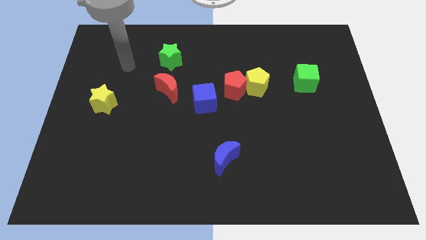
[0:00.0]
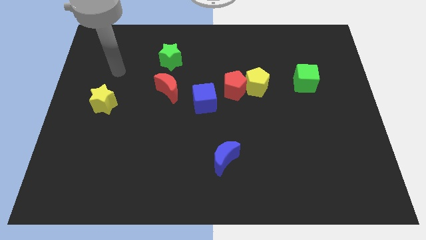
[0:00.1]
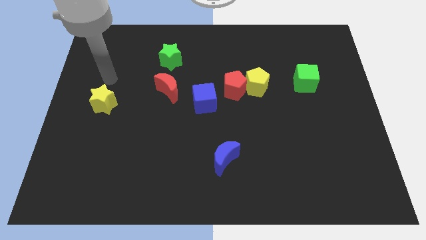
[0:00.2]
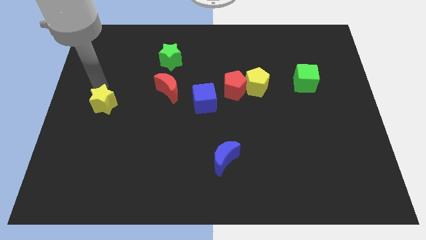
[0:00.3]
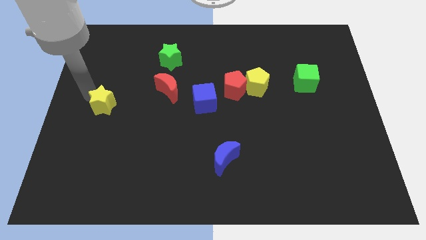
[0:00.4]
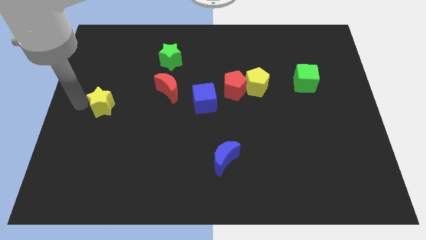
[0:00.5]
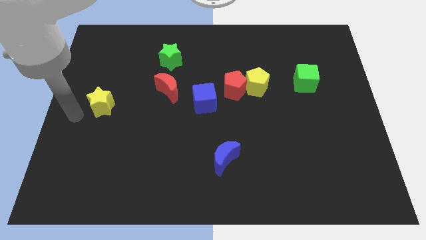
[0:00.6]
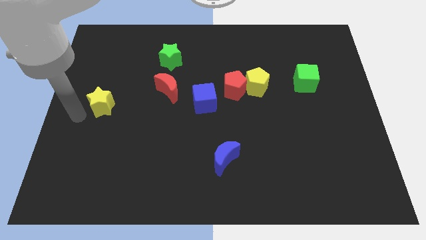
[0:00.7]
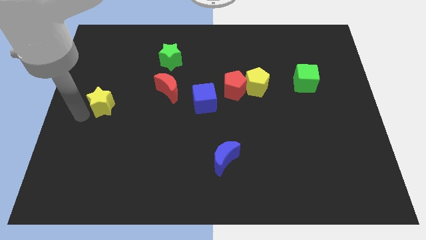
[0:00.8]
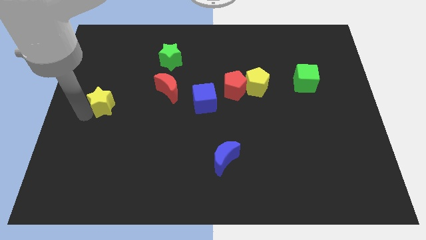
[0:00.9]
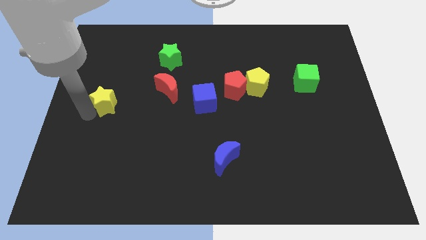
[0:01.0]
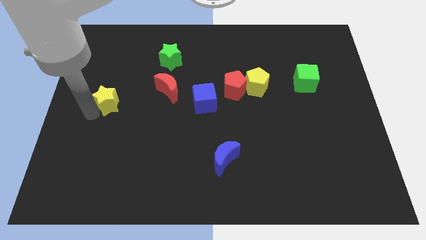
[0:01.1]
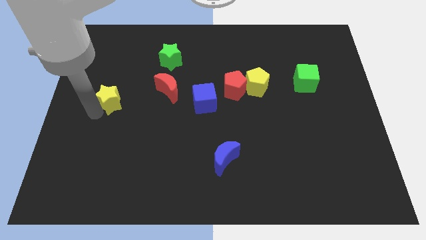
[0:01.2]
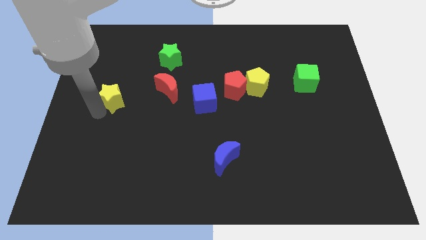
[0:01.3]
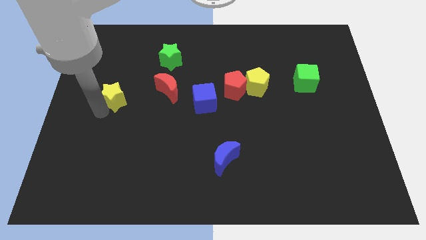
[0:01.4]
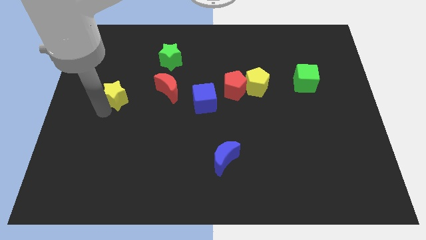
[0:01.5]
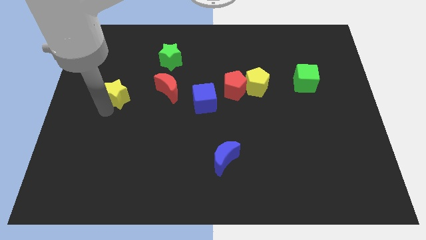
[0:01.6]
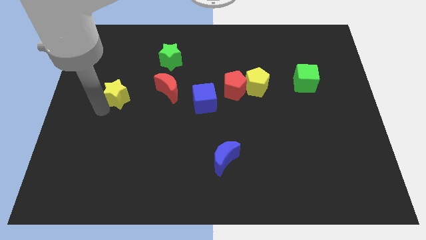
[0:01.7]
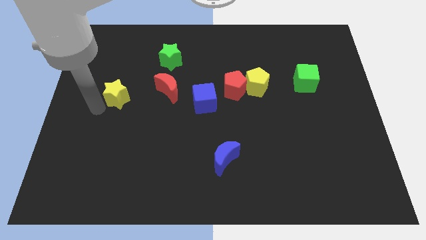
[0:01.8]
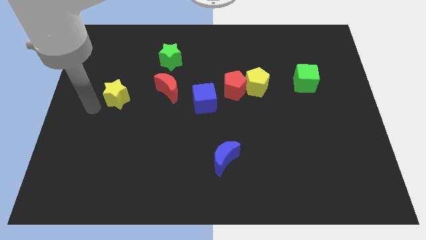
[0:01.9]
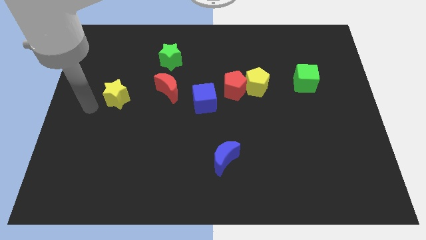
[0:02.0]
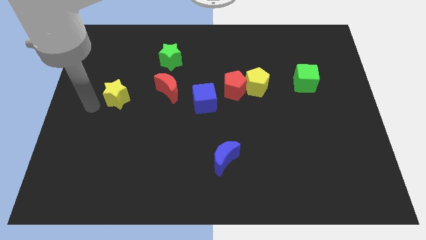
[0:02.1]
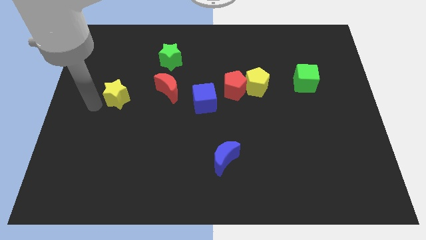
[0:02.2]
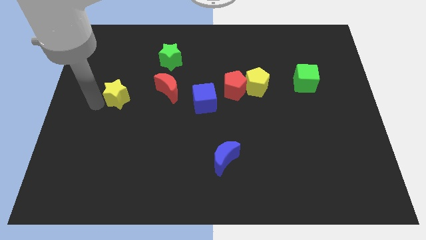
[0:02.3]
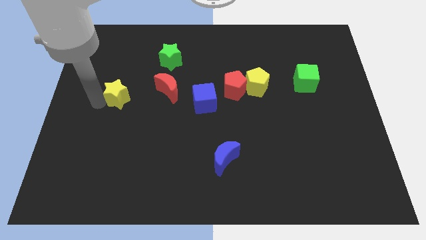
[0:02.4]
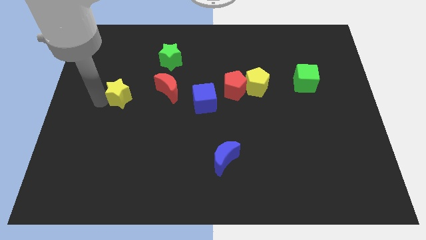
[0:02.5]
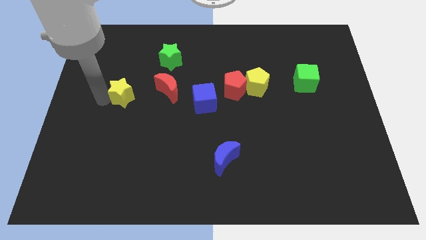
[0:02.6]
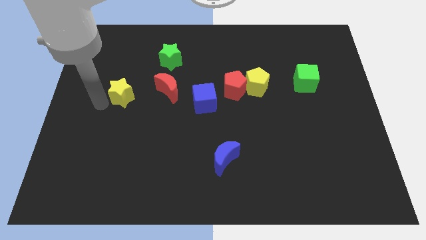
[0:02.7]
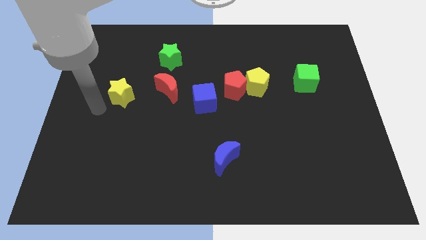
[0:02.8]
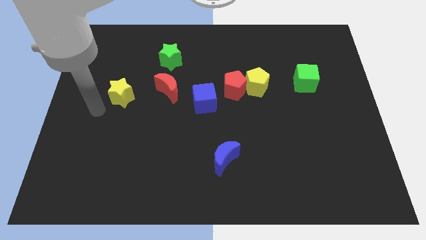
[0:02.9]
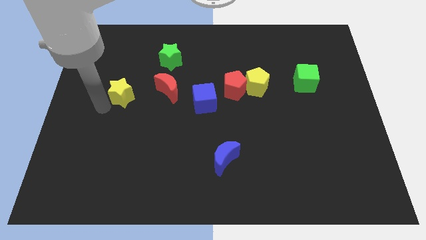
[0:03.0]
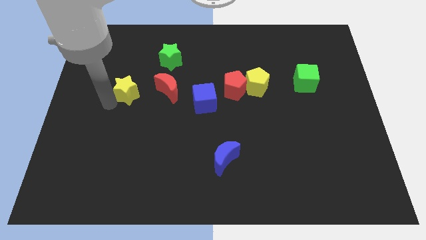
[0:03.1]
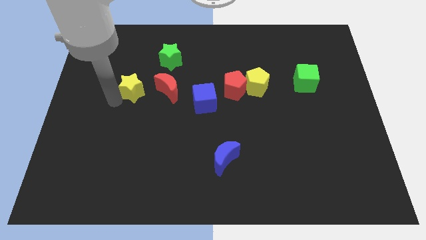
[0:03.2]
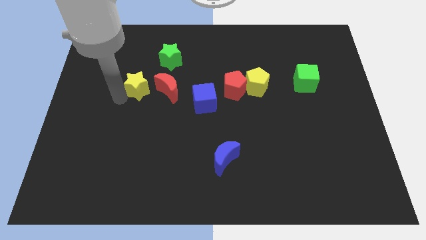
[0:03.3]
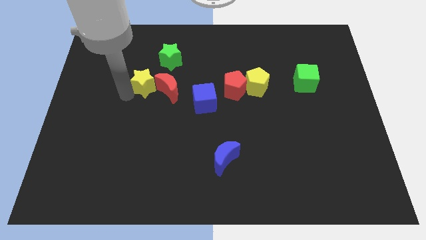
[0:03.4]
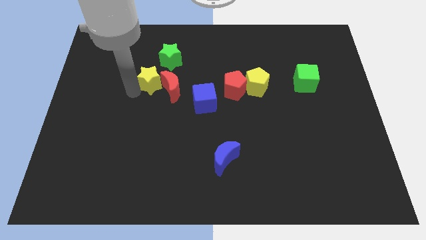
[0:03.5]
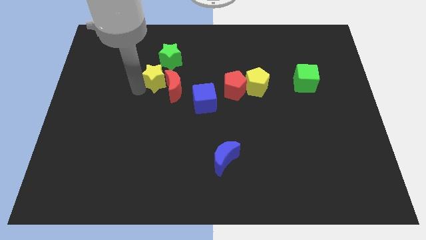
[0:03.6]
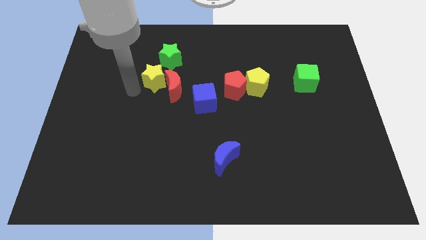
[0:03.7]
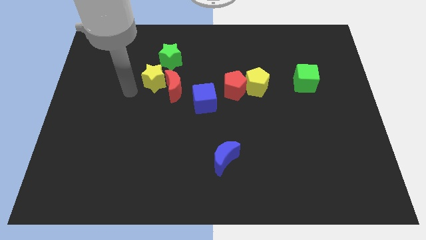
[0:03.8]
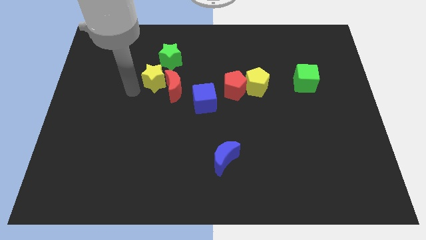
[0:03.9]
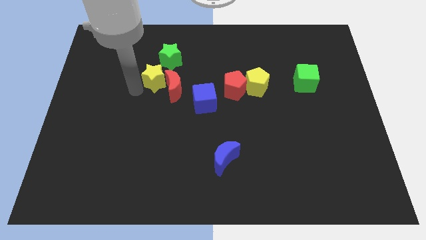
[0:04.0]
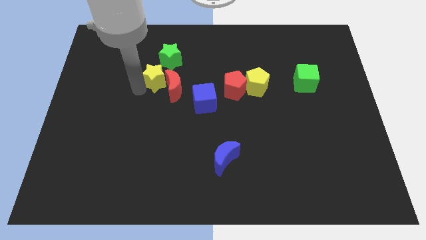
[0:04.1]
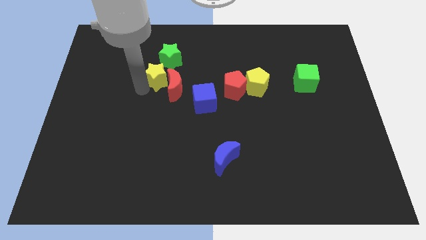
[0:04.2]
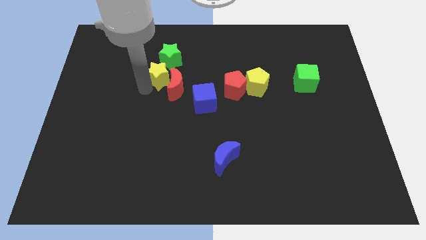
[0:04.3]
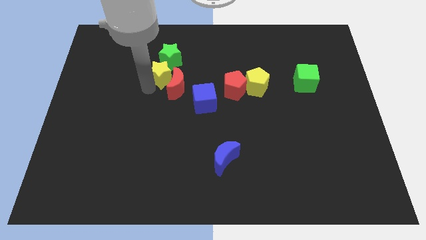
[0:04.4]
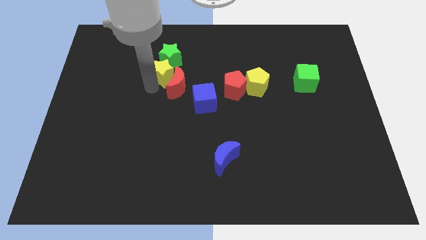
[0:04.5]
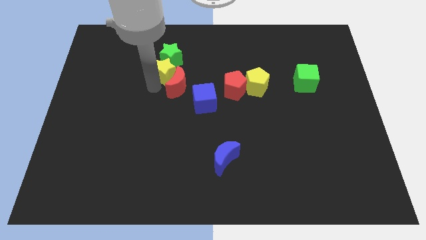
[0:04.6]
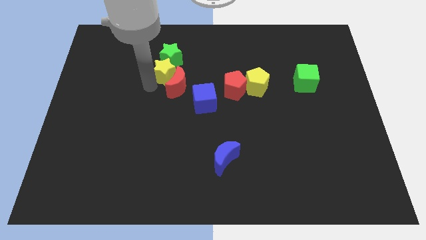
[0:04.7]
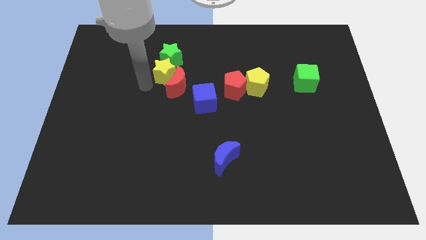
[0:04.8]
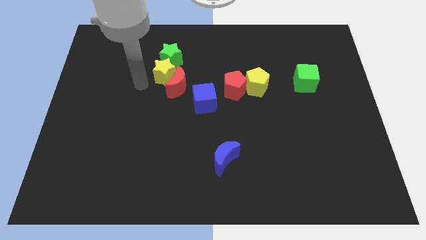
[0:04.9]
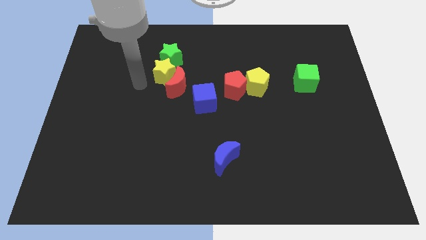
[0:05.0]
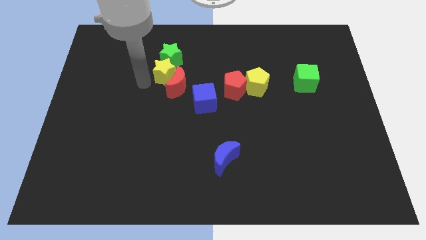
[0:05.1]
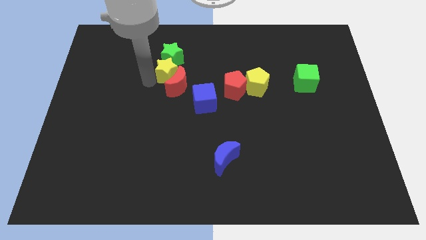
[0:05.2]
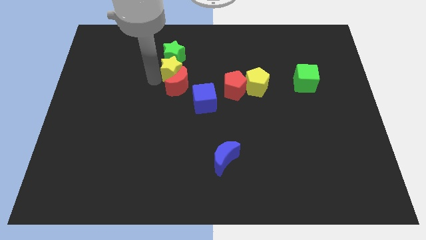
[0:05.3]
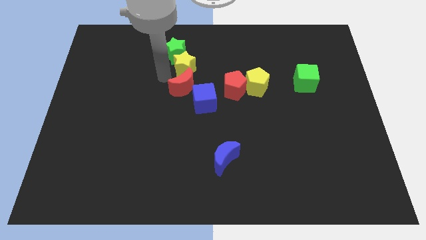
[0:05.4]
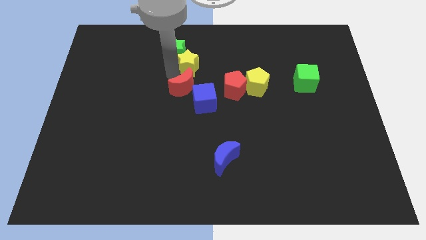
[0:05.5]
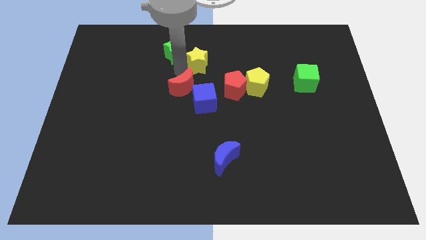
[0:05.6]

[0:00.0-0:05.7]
put the yellow star right of the green star

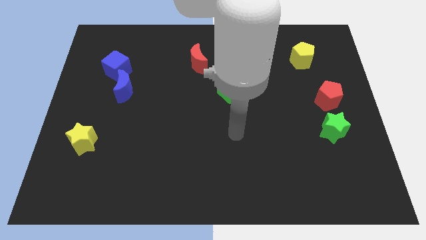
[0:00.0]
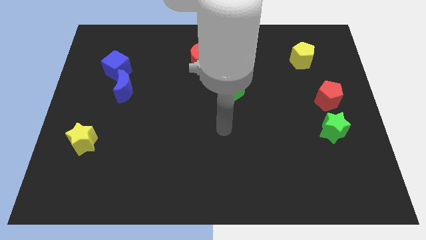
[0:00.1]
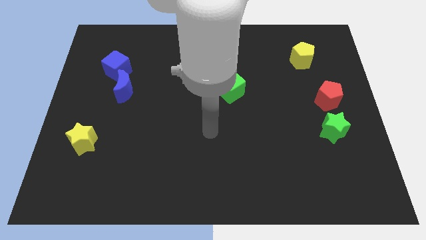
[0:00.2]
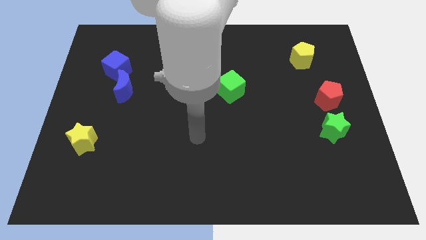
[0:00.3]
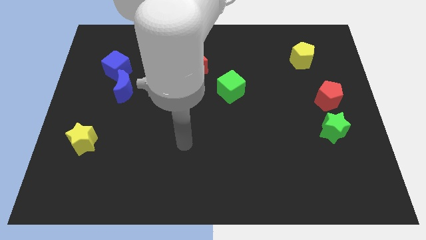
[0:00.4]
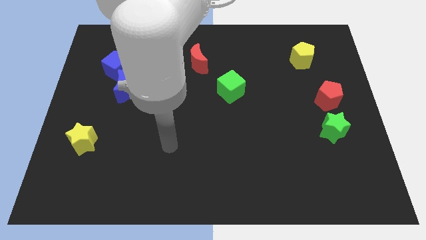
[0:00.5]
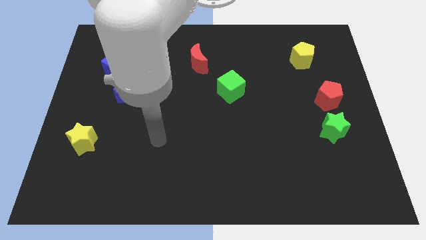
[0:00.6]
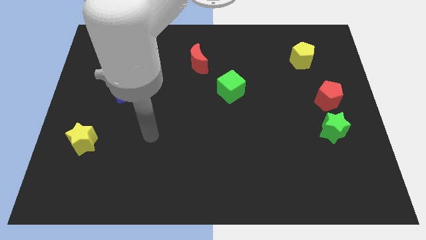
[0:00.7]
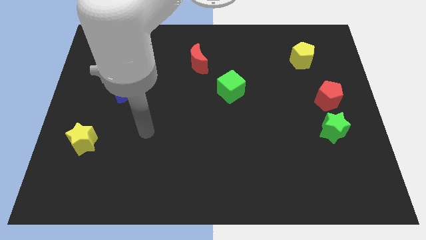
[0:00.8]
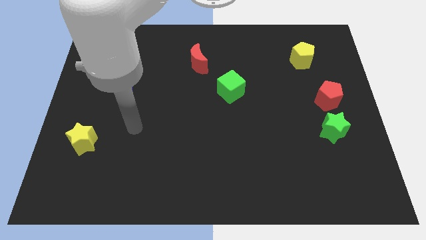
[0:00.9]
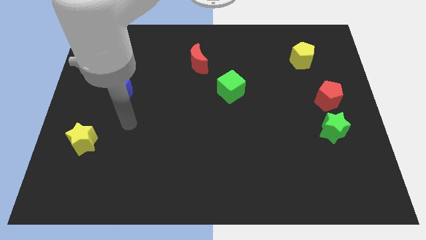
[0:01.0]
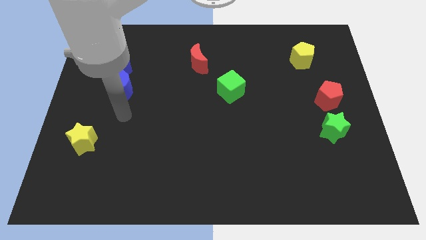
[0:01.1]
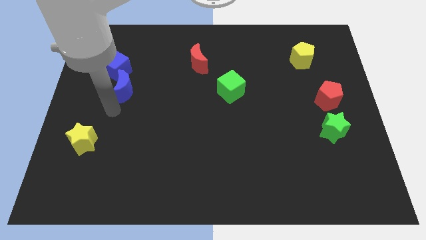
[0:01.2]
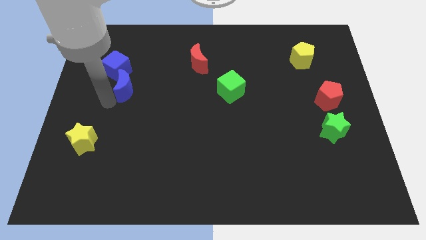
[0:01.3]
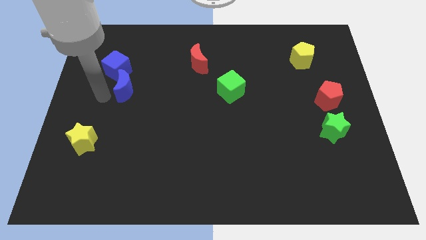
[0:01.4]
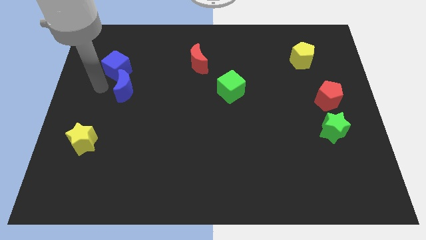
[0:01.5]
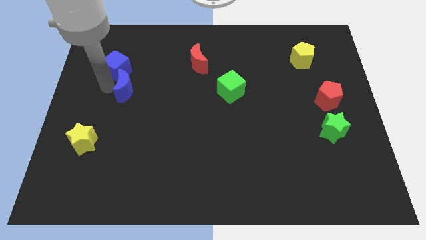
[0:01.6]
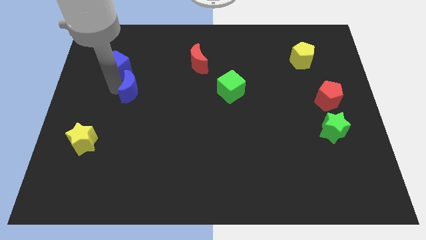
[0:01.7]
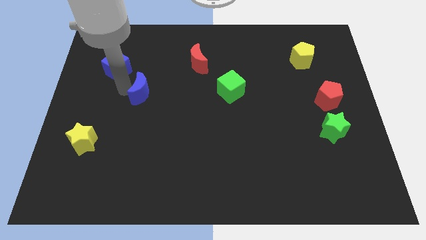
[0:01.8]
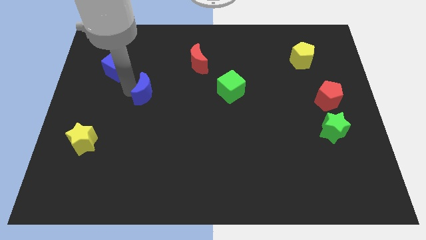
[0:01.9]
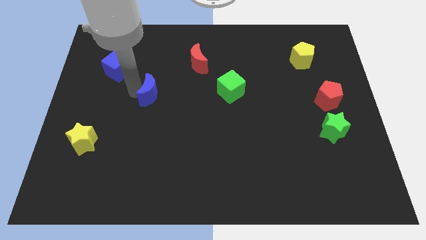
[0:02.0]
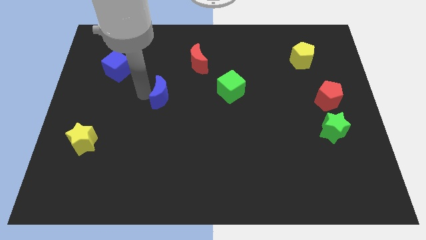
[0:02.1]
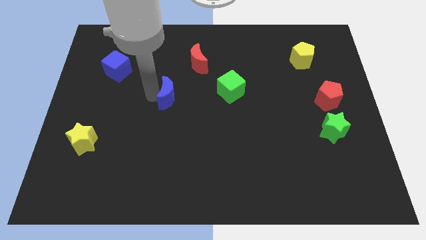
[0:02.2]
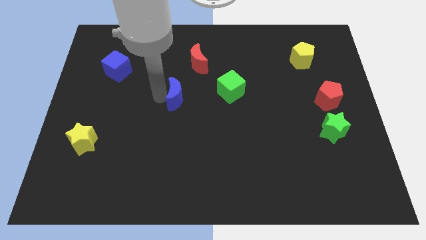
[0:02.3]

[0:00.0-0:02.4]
put the blue moon below the red moon
